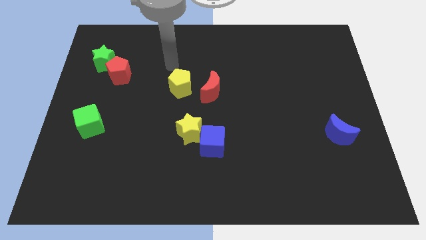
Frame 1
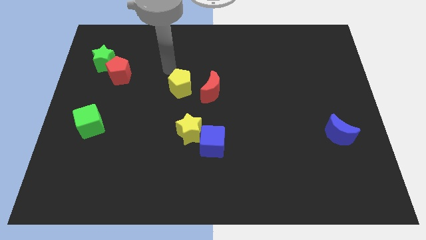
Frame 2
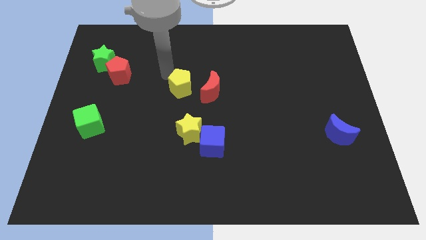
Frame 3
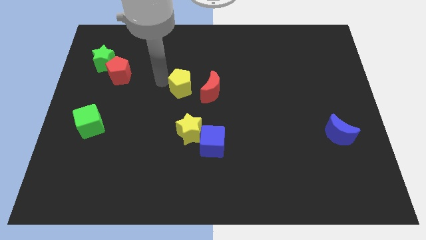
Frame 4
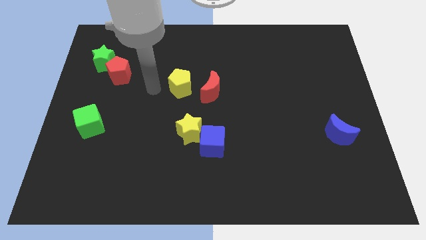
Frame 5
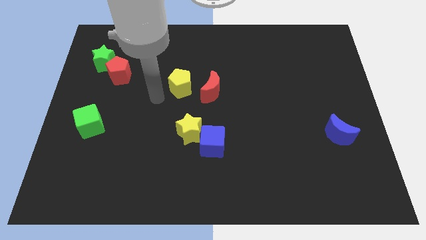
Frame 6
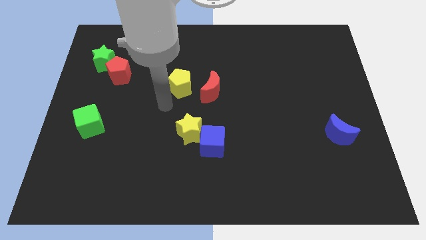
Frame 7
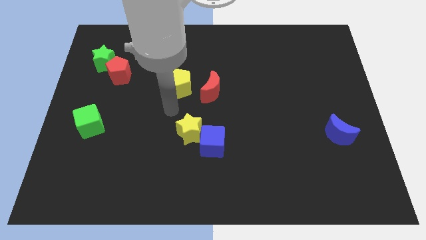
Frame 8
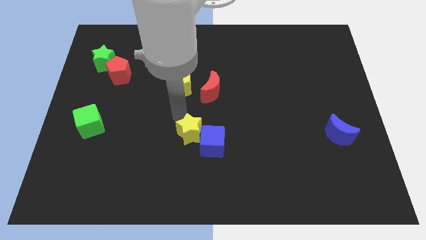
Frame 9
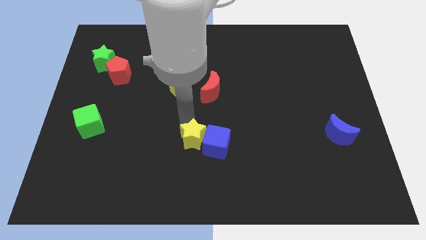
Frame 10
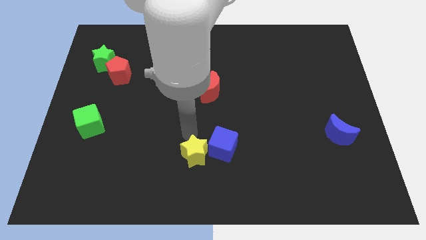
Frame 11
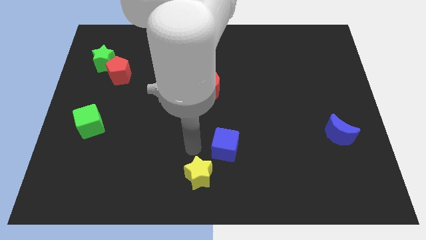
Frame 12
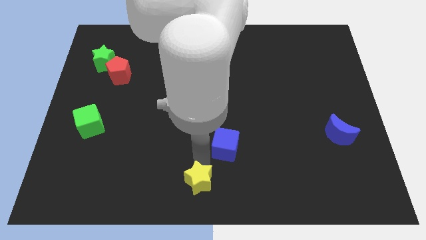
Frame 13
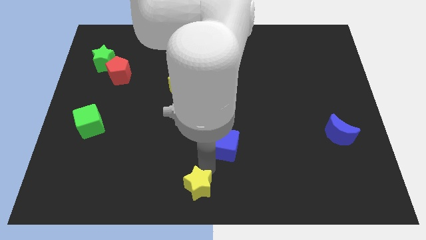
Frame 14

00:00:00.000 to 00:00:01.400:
pull the blue cube apart from the yellow star

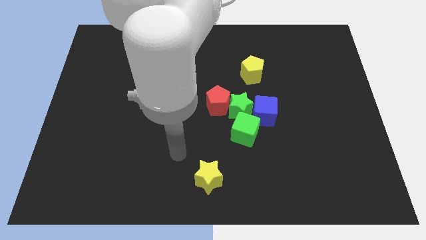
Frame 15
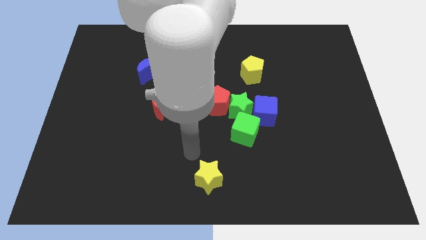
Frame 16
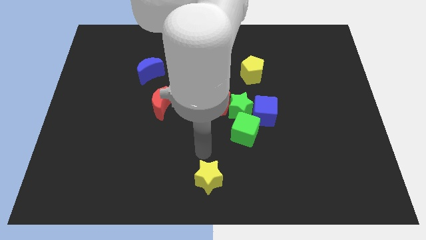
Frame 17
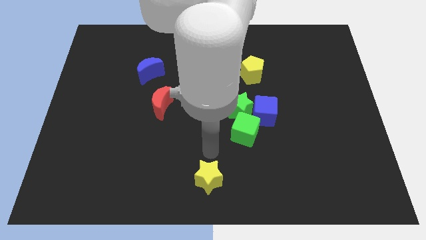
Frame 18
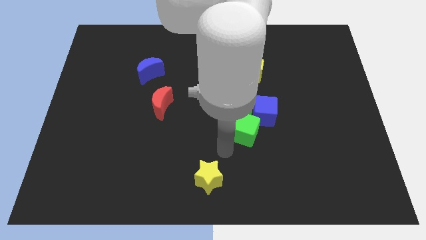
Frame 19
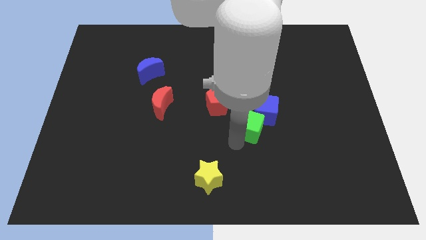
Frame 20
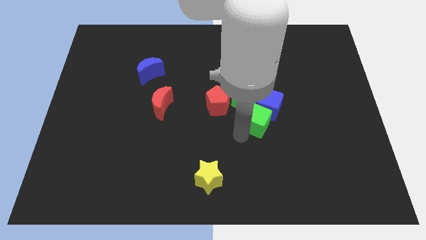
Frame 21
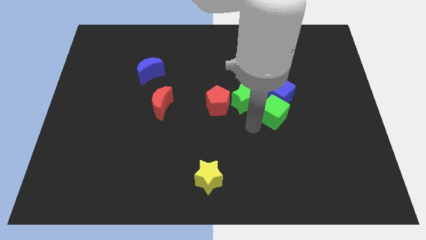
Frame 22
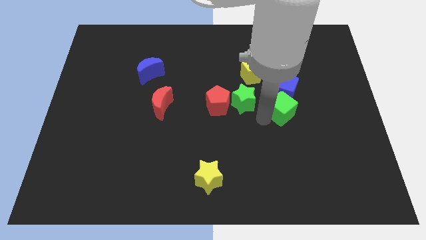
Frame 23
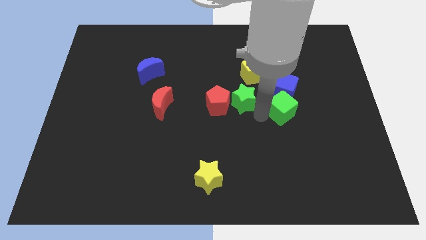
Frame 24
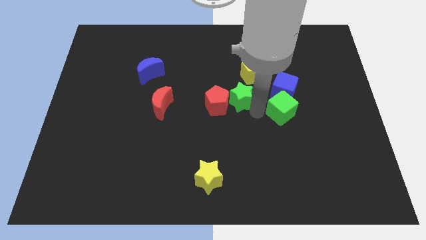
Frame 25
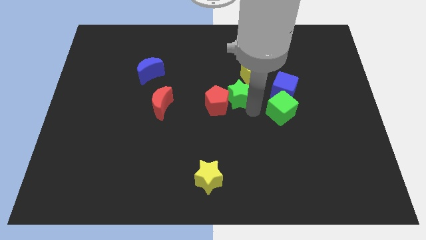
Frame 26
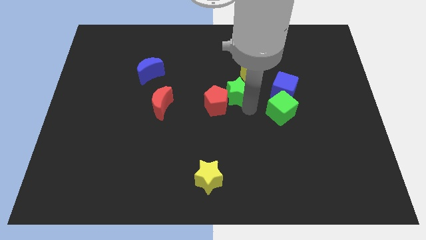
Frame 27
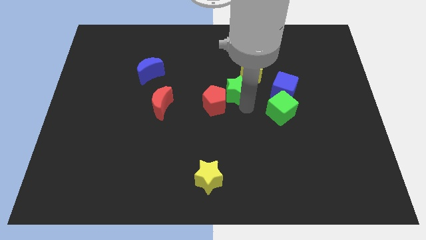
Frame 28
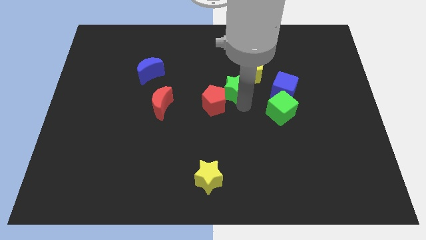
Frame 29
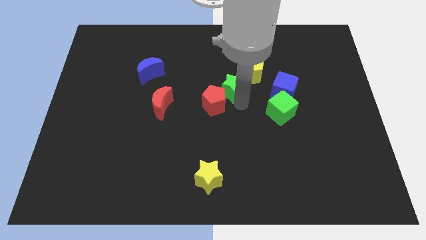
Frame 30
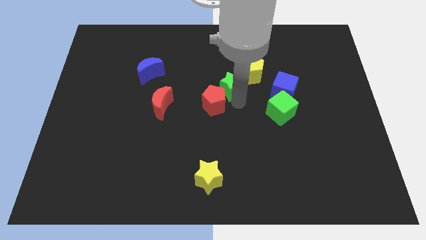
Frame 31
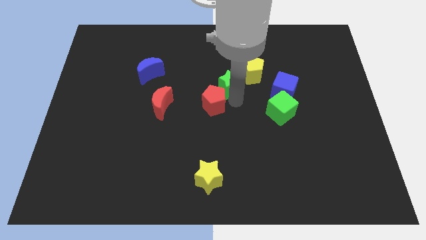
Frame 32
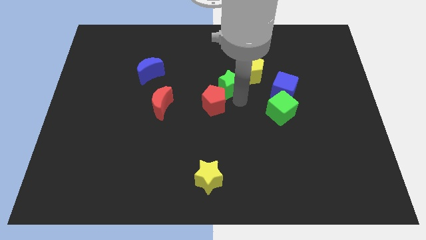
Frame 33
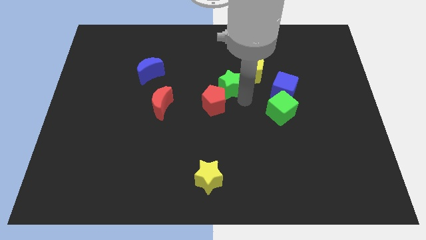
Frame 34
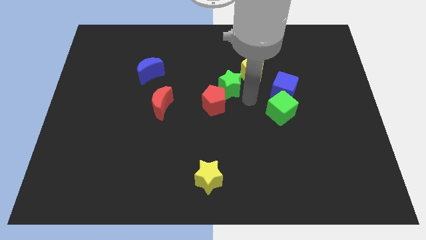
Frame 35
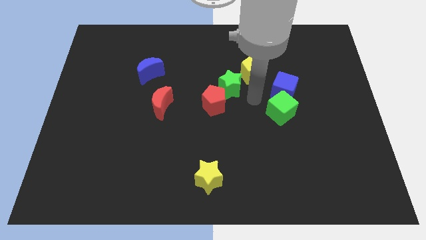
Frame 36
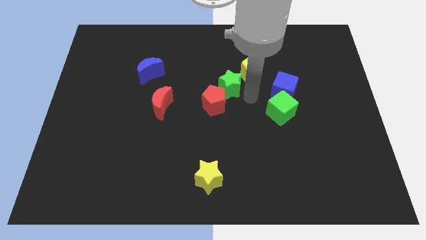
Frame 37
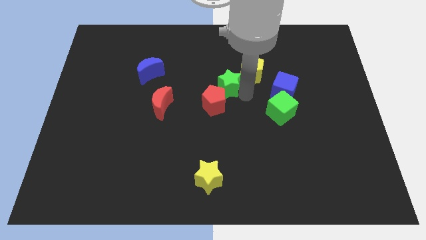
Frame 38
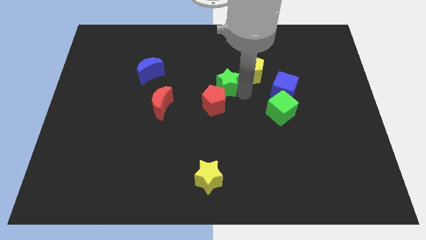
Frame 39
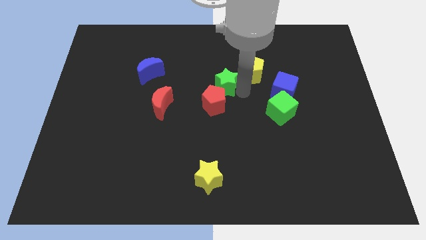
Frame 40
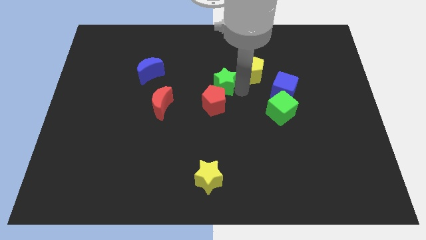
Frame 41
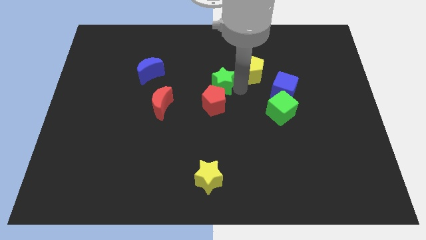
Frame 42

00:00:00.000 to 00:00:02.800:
move the green star away from the red pentagon, blue cube, and green cube

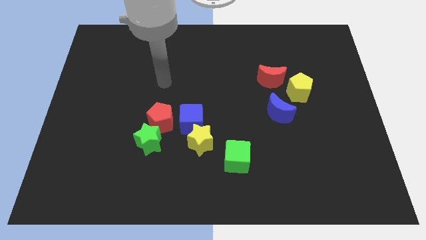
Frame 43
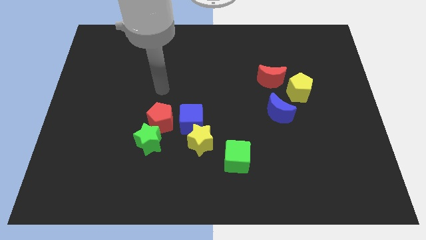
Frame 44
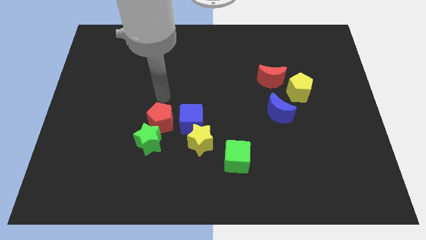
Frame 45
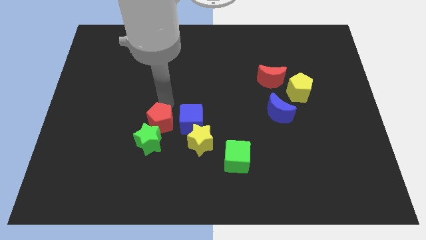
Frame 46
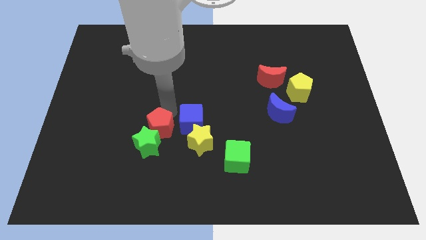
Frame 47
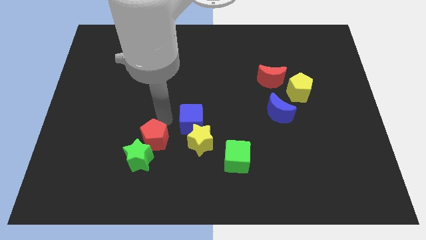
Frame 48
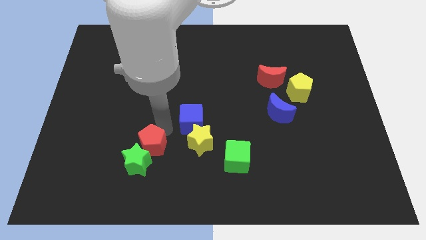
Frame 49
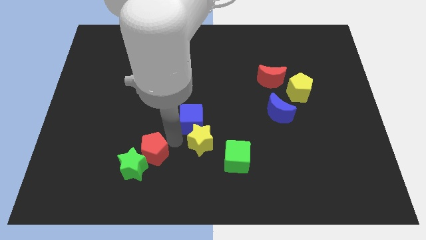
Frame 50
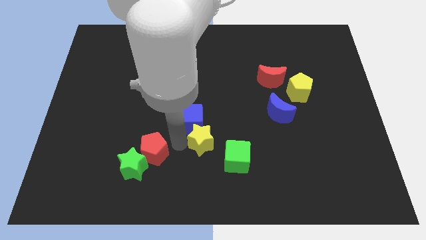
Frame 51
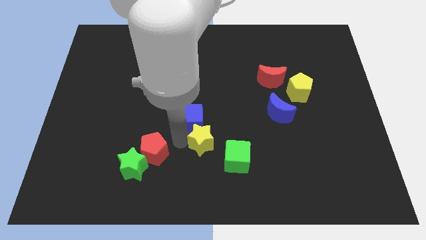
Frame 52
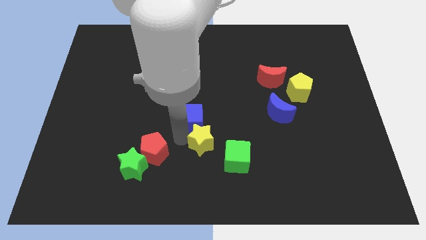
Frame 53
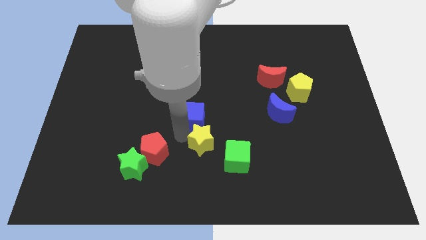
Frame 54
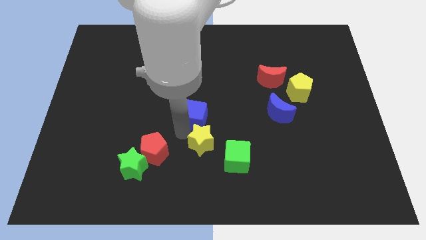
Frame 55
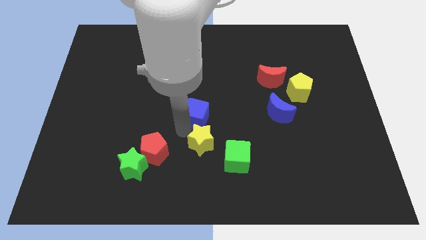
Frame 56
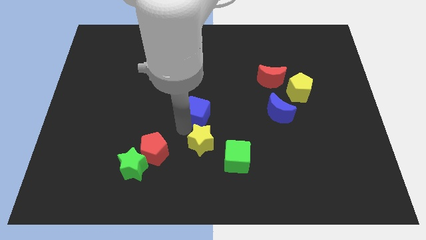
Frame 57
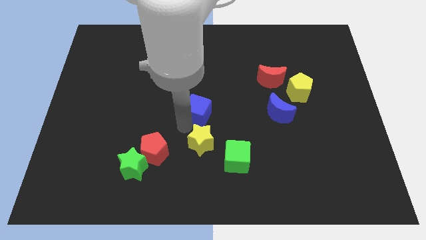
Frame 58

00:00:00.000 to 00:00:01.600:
pull the blue cube apart from the yellow star and red pentagon

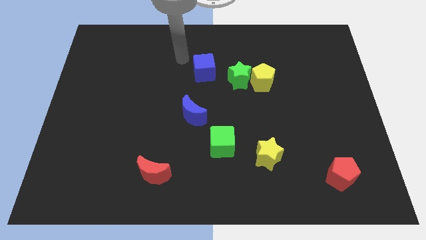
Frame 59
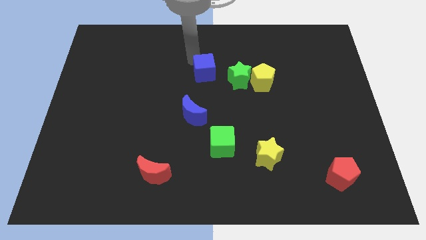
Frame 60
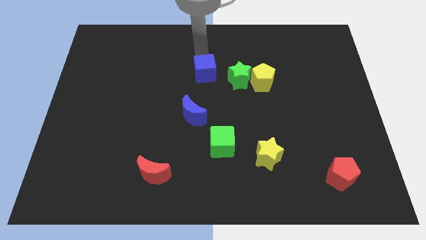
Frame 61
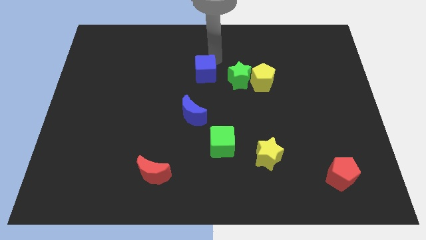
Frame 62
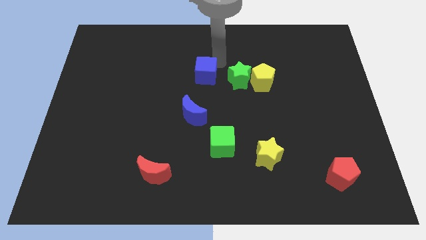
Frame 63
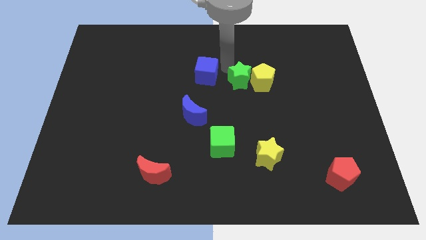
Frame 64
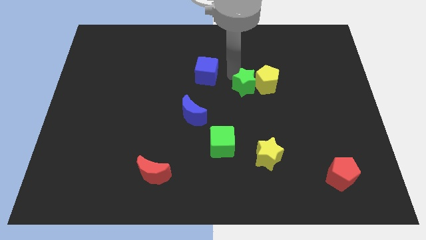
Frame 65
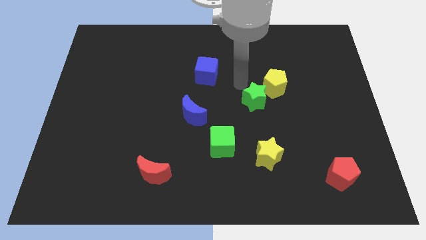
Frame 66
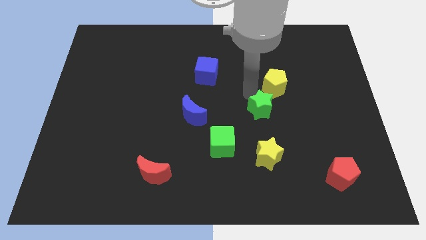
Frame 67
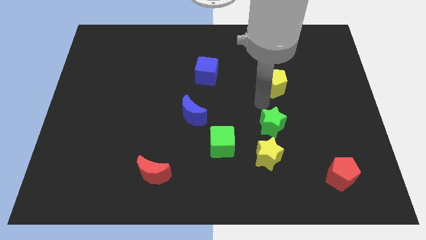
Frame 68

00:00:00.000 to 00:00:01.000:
pull the yellow pentagon apart from the green star

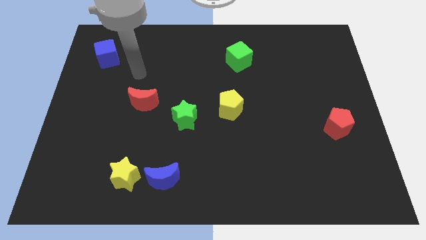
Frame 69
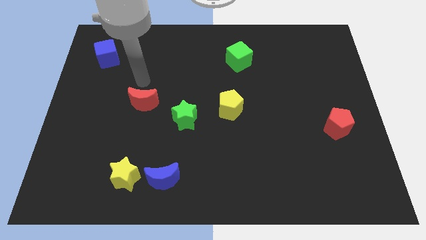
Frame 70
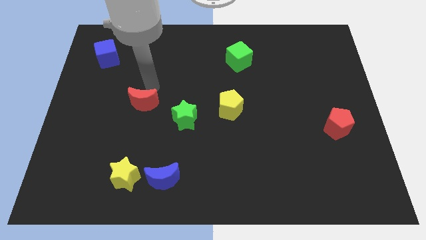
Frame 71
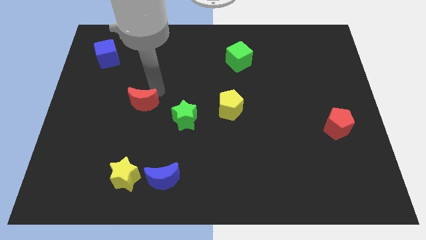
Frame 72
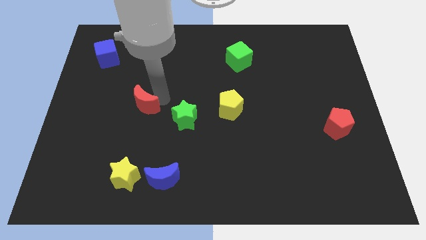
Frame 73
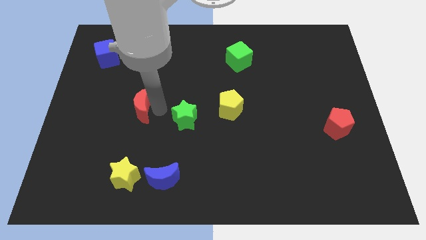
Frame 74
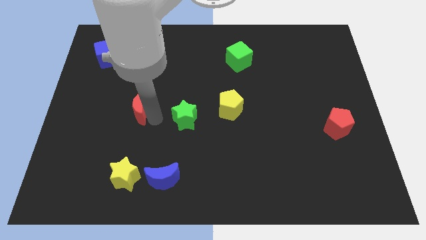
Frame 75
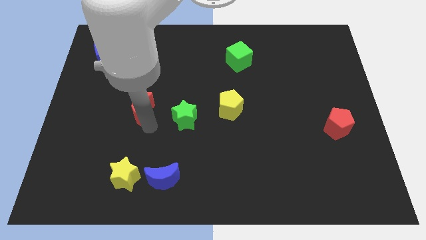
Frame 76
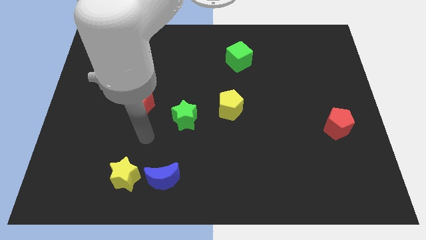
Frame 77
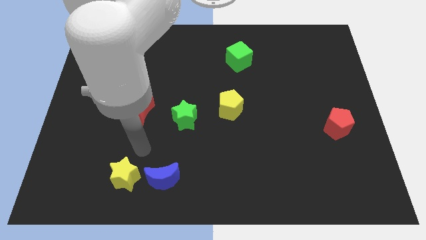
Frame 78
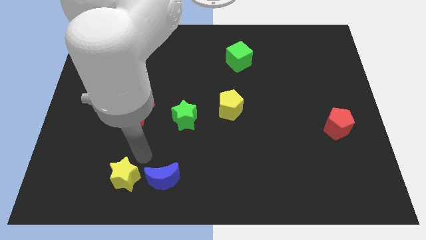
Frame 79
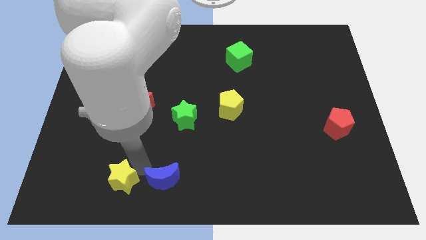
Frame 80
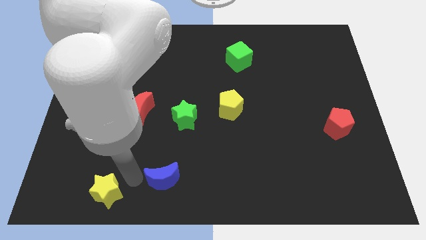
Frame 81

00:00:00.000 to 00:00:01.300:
move the blue moon away from the yellow star

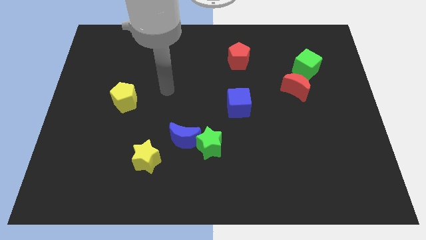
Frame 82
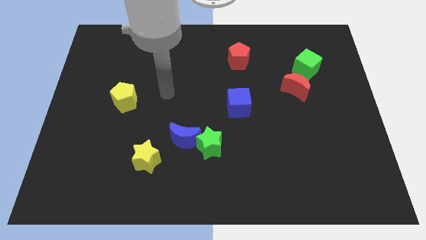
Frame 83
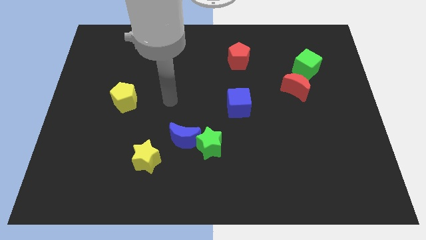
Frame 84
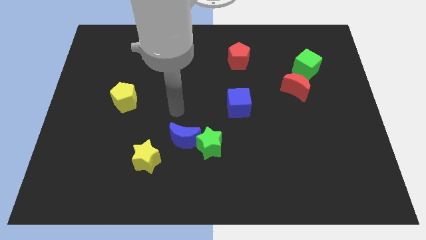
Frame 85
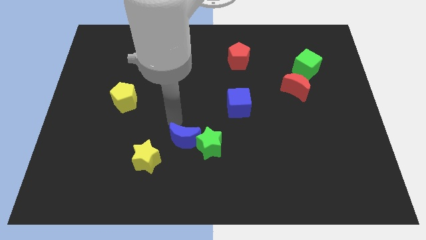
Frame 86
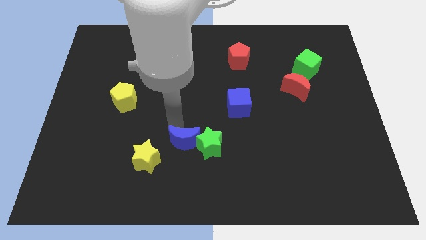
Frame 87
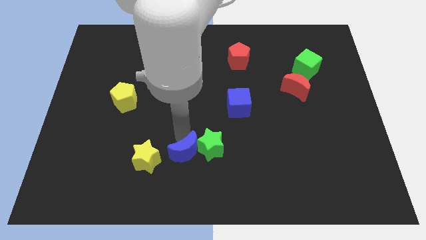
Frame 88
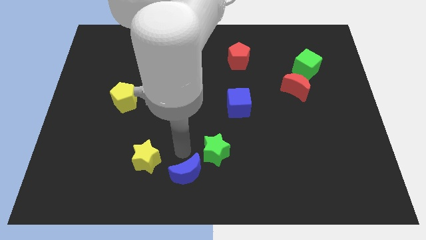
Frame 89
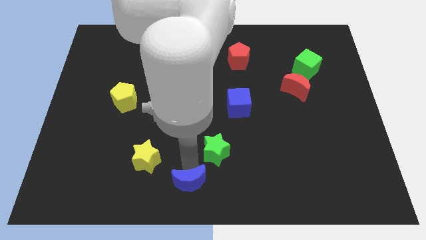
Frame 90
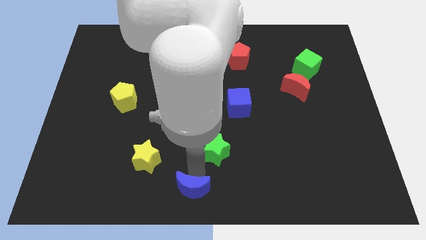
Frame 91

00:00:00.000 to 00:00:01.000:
move the green star away from the blue moon

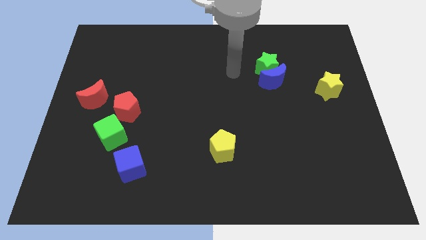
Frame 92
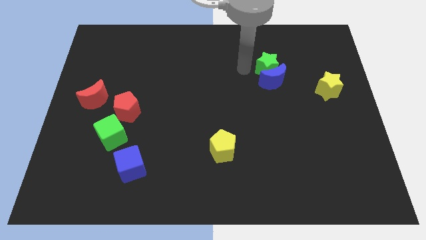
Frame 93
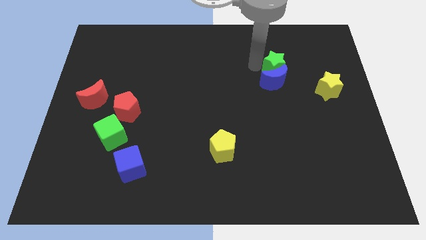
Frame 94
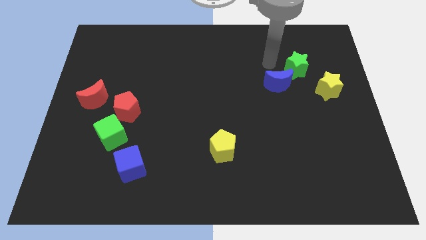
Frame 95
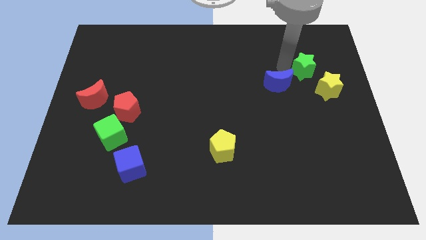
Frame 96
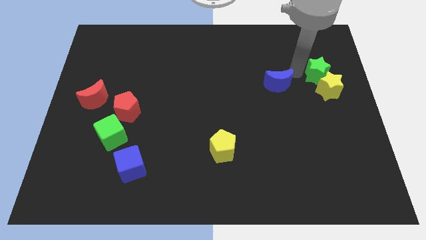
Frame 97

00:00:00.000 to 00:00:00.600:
pull the blue moon apart from the green star
